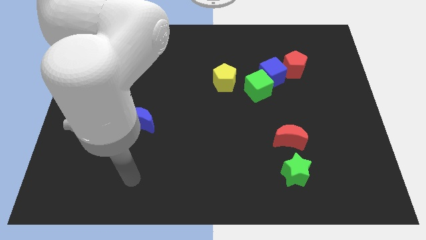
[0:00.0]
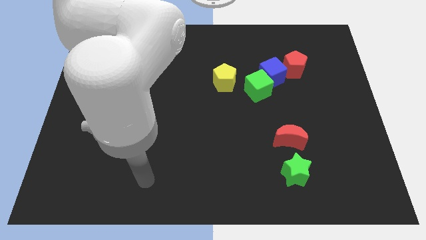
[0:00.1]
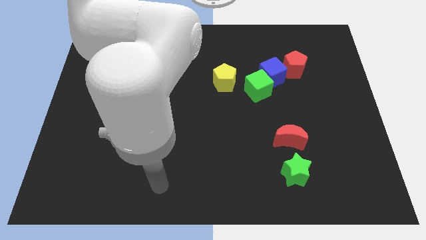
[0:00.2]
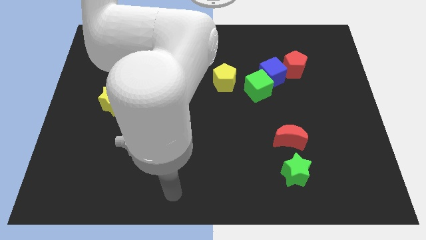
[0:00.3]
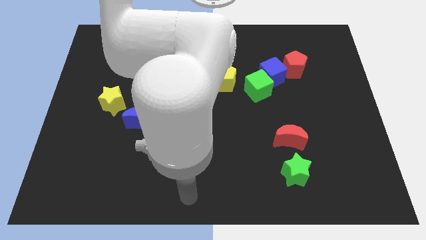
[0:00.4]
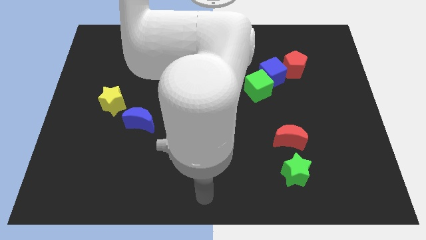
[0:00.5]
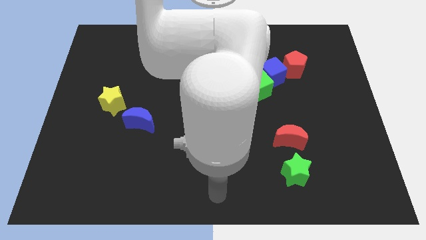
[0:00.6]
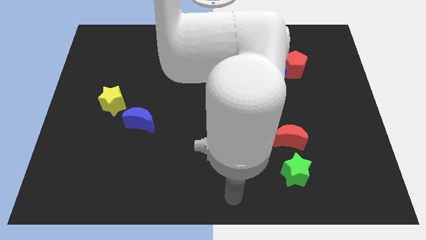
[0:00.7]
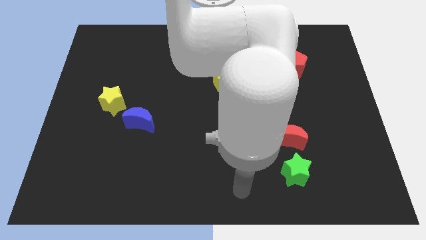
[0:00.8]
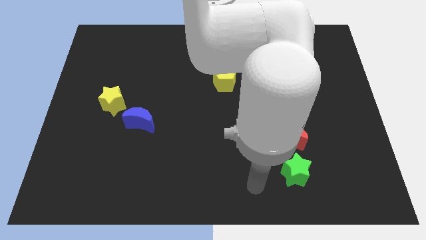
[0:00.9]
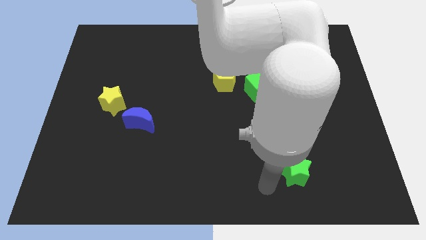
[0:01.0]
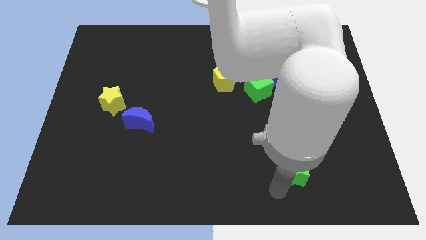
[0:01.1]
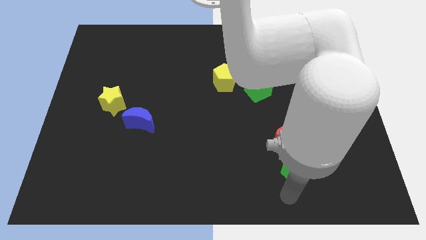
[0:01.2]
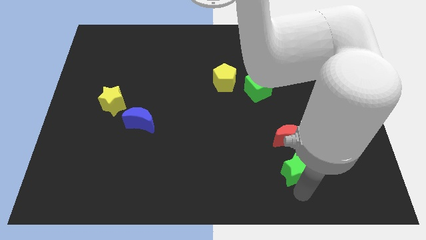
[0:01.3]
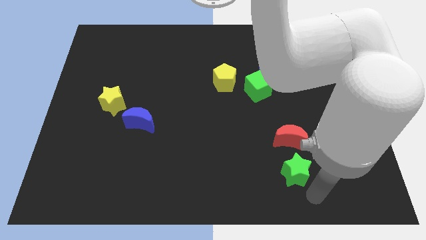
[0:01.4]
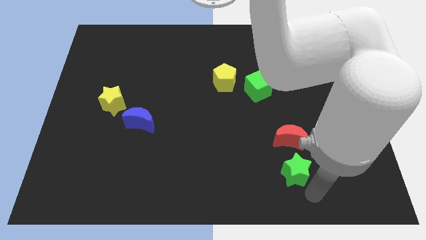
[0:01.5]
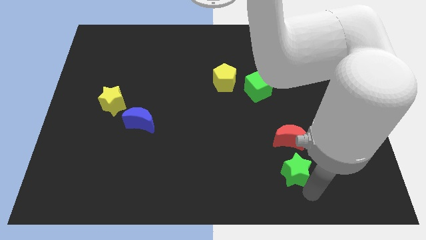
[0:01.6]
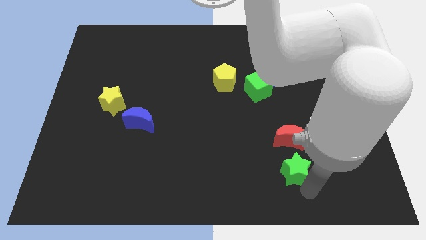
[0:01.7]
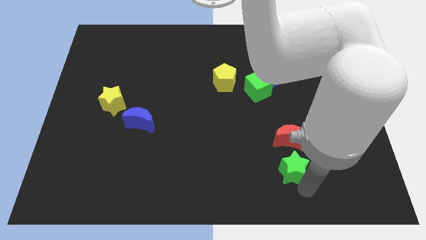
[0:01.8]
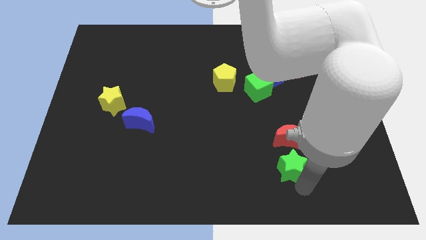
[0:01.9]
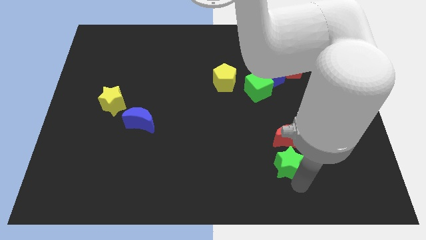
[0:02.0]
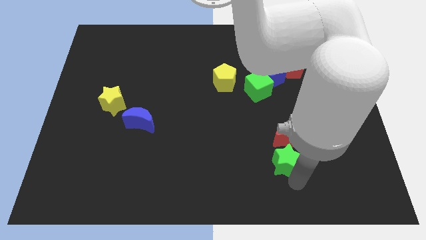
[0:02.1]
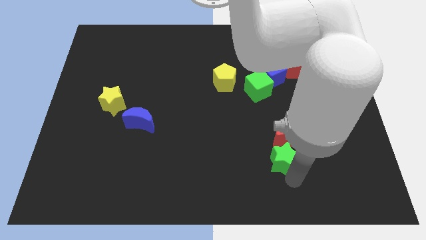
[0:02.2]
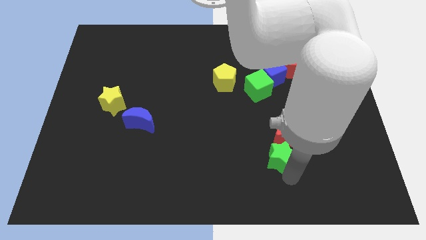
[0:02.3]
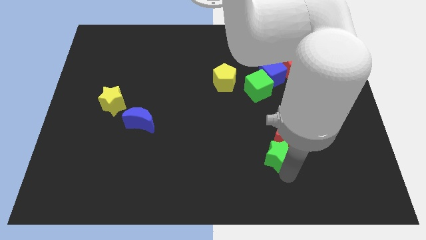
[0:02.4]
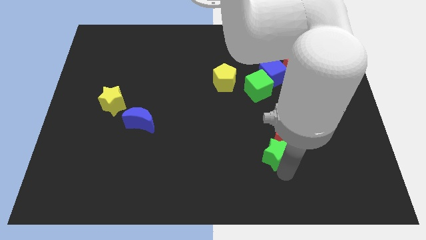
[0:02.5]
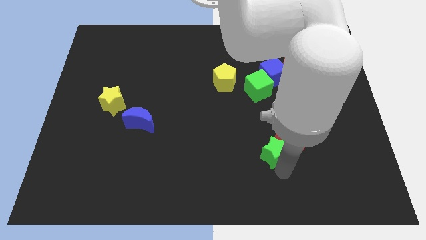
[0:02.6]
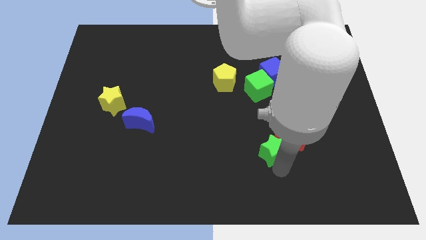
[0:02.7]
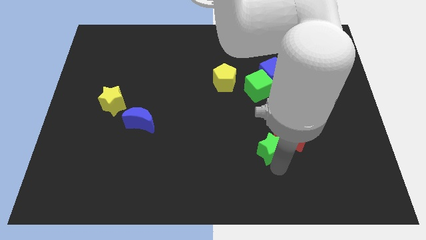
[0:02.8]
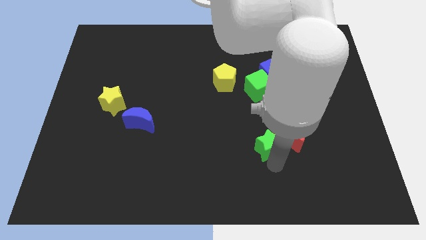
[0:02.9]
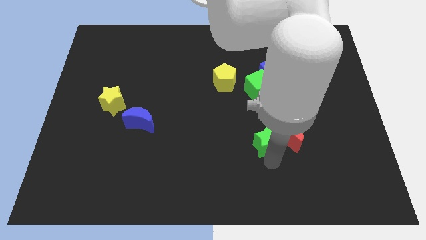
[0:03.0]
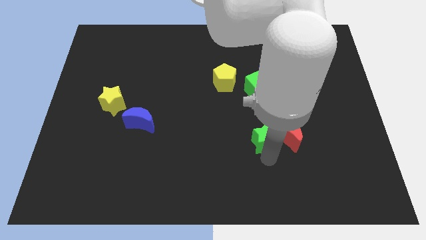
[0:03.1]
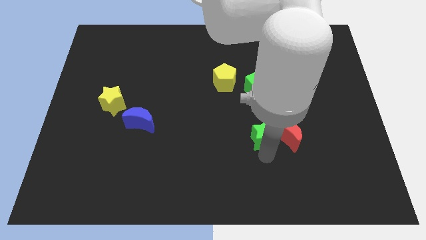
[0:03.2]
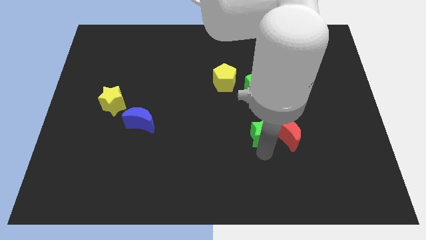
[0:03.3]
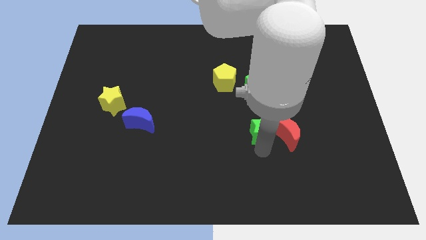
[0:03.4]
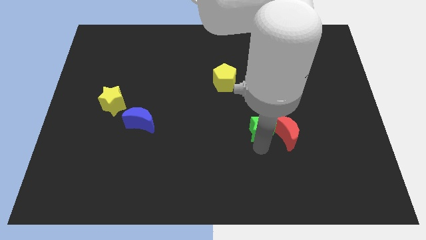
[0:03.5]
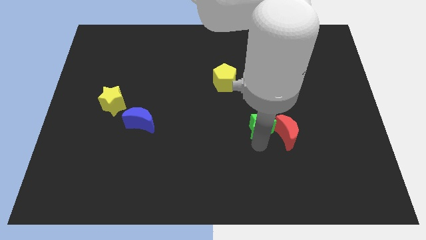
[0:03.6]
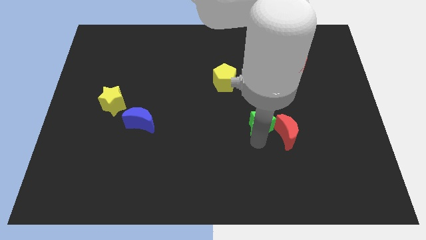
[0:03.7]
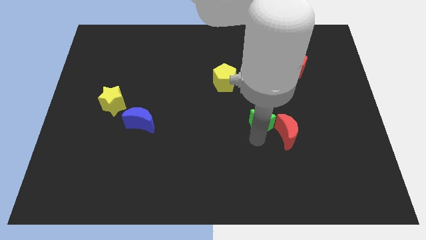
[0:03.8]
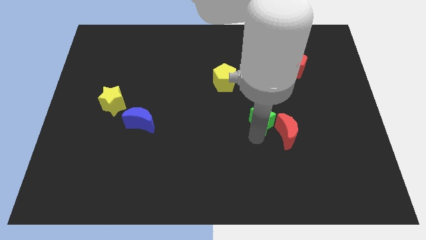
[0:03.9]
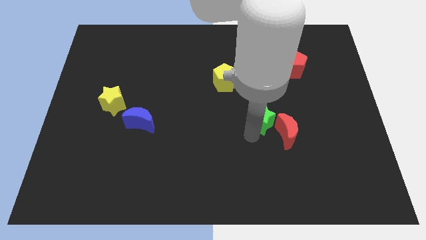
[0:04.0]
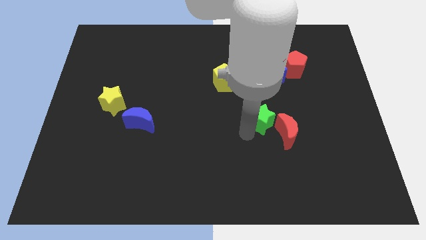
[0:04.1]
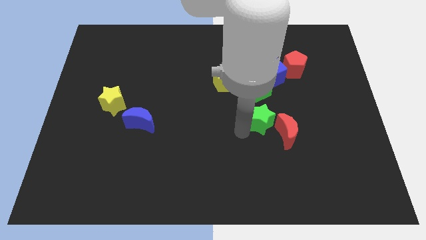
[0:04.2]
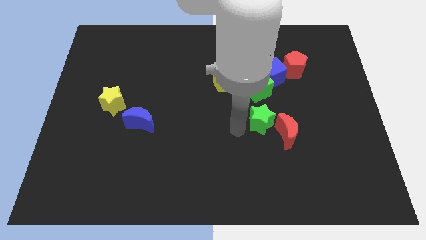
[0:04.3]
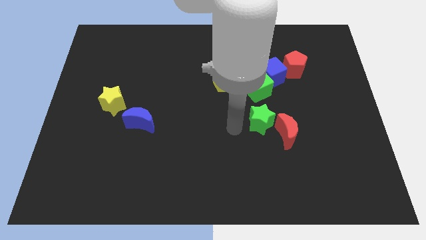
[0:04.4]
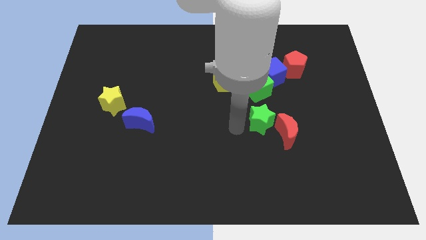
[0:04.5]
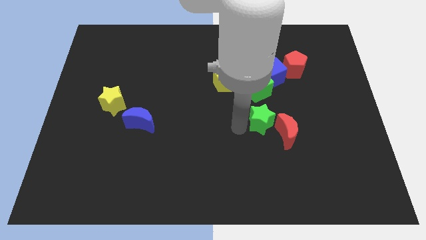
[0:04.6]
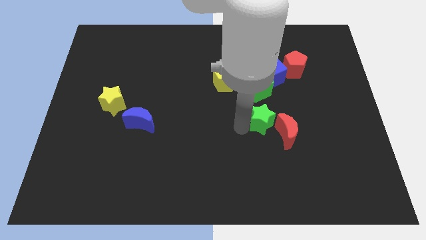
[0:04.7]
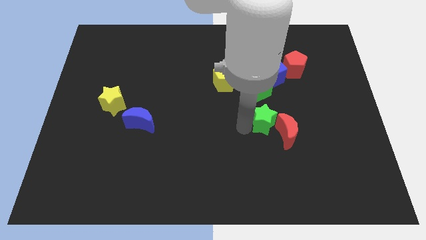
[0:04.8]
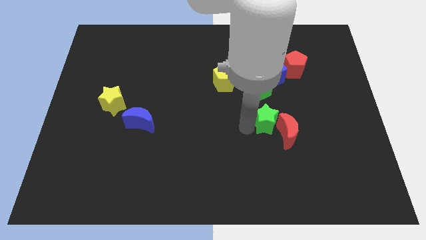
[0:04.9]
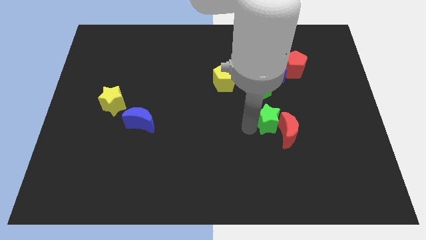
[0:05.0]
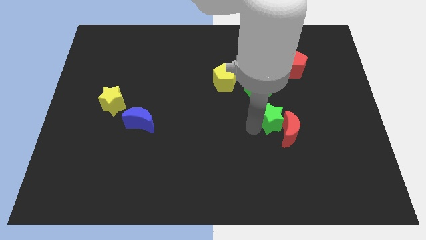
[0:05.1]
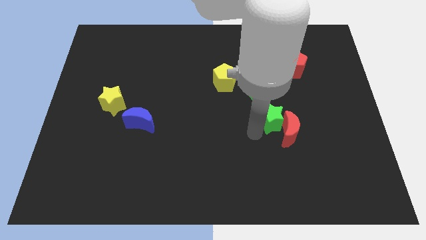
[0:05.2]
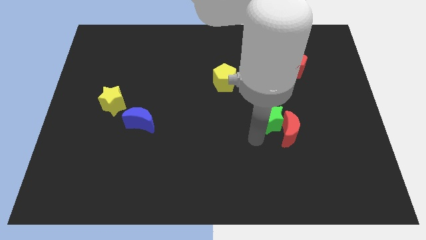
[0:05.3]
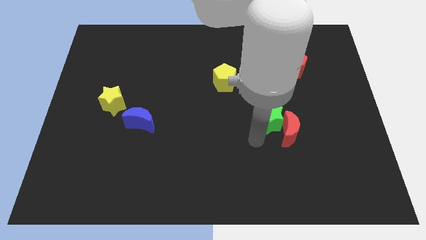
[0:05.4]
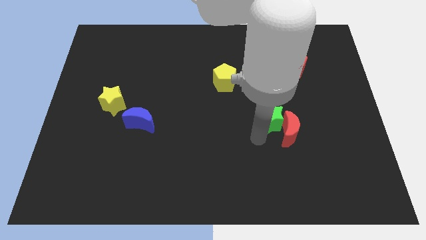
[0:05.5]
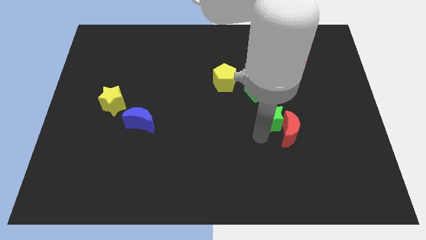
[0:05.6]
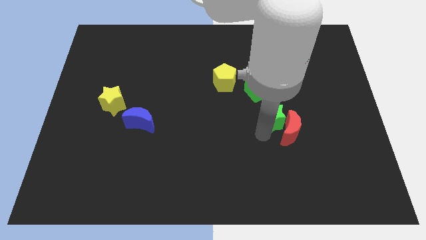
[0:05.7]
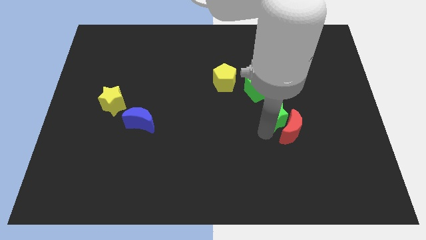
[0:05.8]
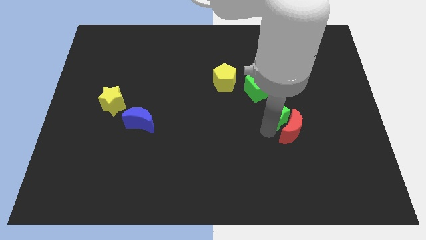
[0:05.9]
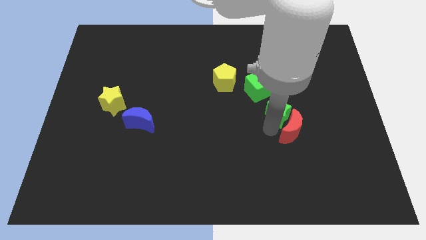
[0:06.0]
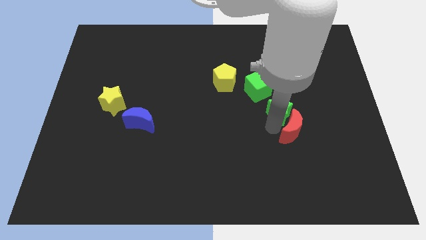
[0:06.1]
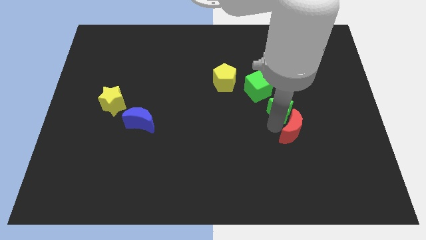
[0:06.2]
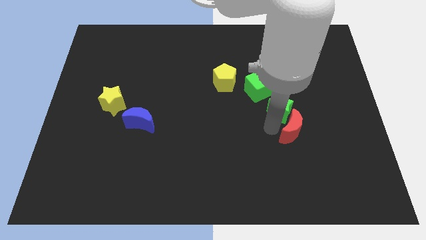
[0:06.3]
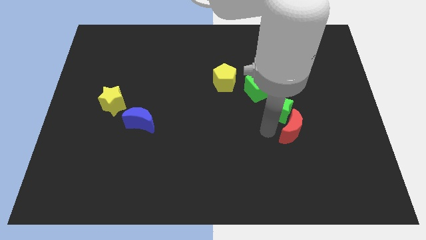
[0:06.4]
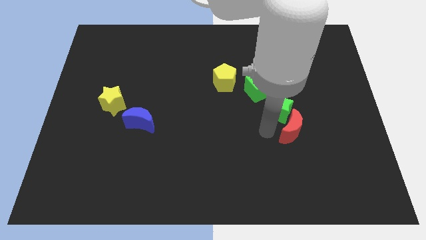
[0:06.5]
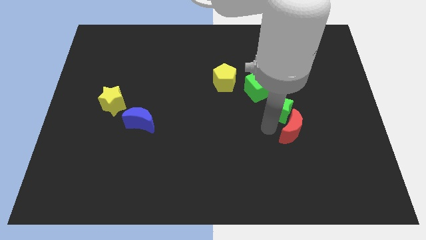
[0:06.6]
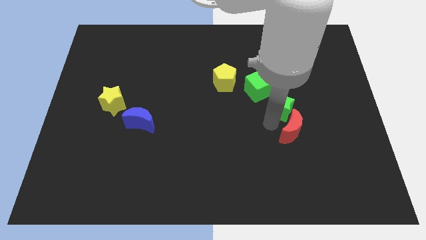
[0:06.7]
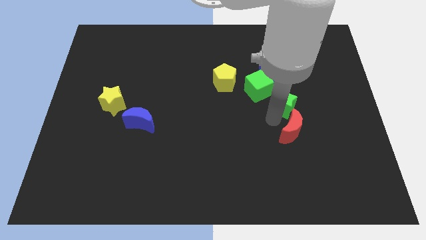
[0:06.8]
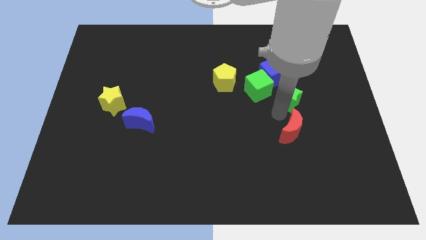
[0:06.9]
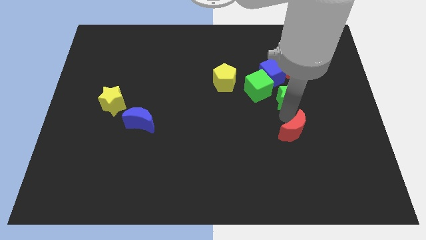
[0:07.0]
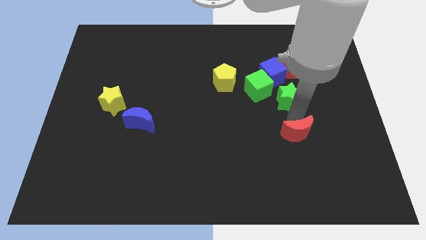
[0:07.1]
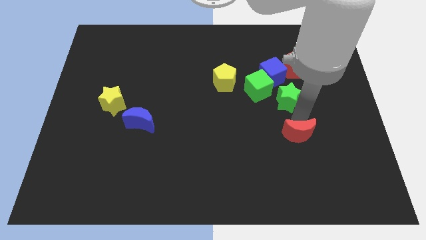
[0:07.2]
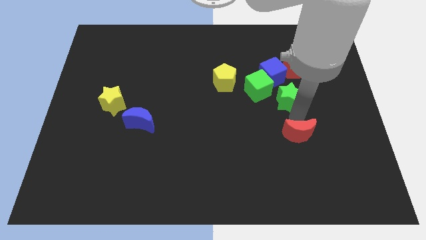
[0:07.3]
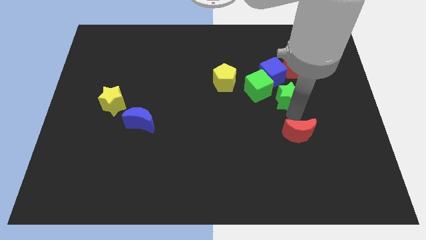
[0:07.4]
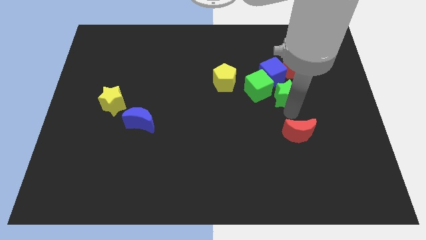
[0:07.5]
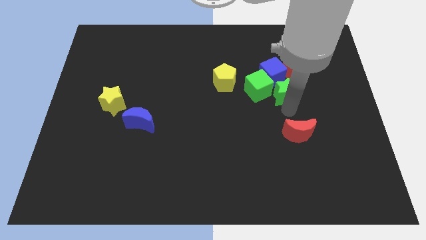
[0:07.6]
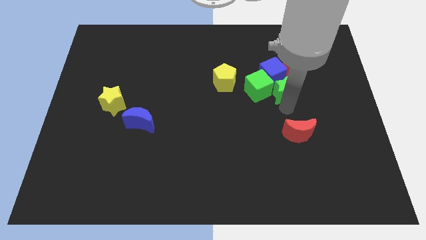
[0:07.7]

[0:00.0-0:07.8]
move the green star to the blue cube
